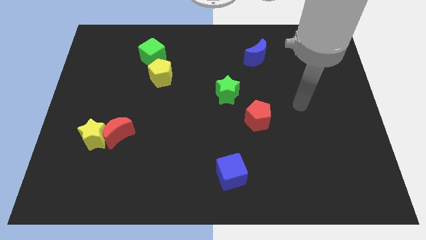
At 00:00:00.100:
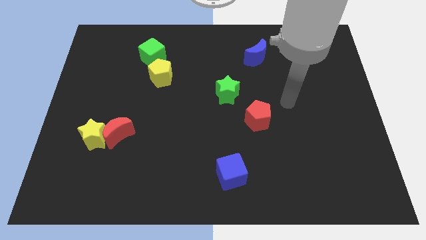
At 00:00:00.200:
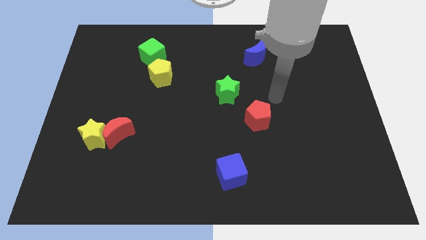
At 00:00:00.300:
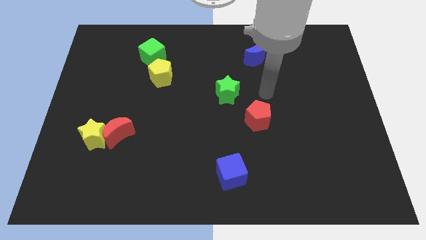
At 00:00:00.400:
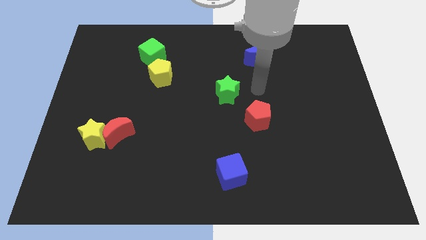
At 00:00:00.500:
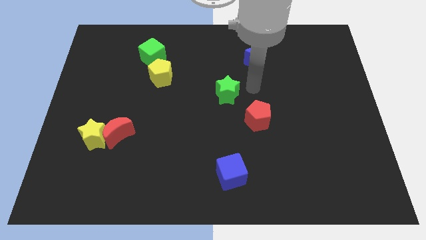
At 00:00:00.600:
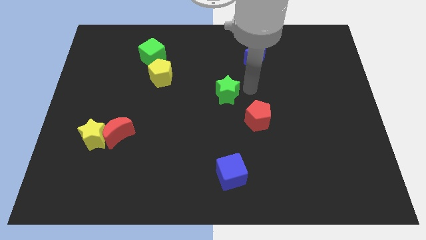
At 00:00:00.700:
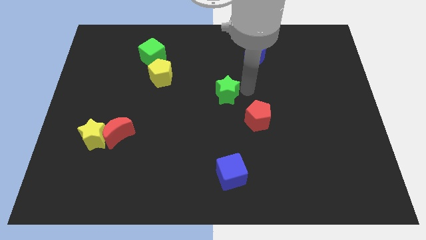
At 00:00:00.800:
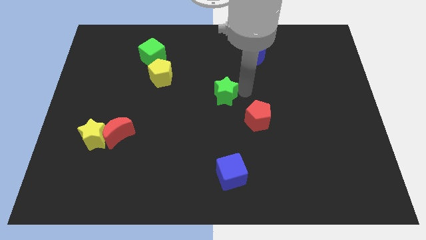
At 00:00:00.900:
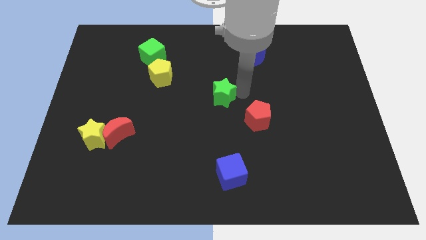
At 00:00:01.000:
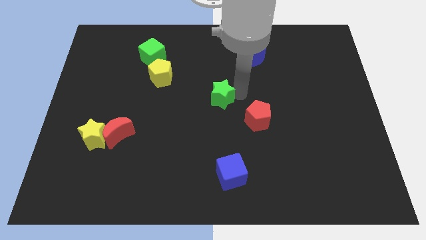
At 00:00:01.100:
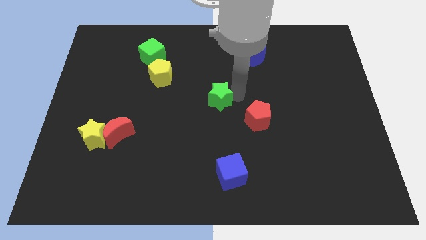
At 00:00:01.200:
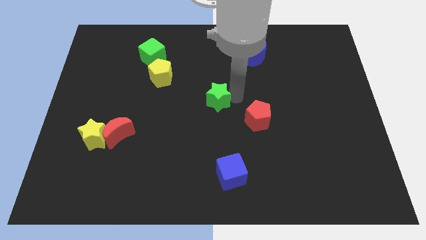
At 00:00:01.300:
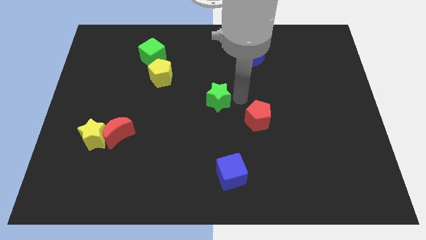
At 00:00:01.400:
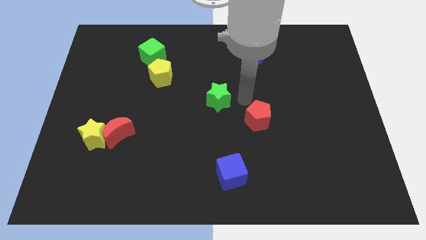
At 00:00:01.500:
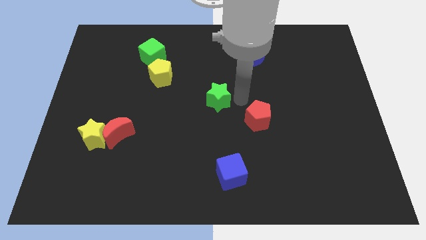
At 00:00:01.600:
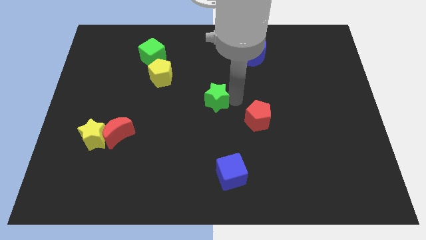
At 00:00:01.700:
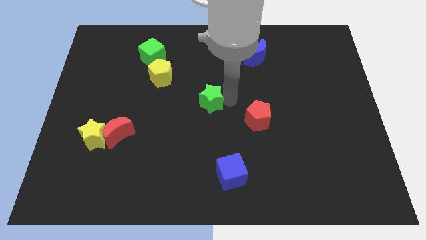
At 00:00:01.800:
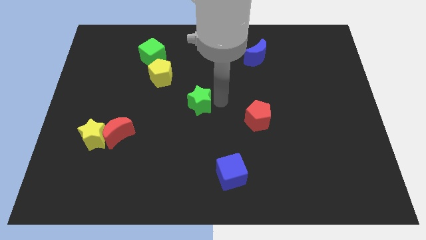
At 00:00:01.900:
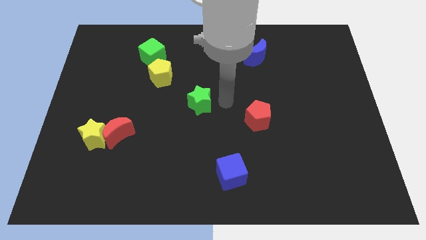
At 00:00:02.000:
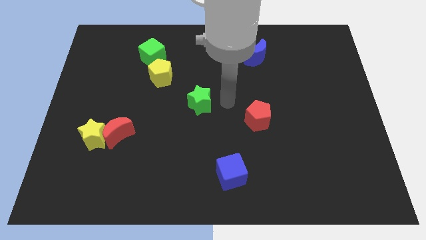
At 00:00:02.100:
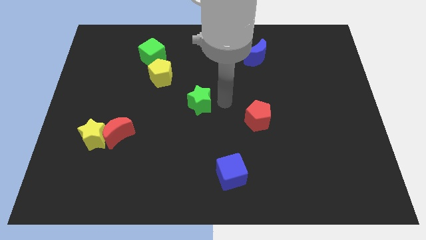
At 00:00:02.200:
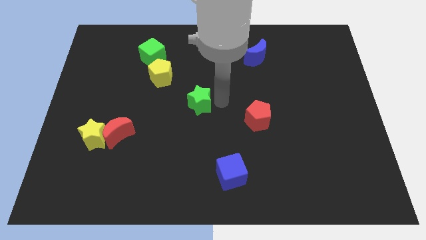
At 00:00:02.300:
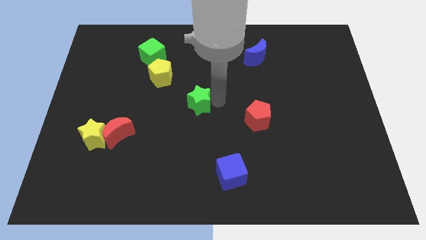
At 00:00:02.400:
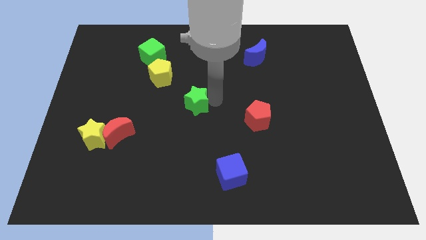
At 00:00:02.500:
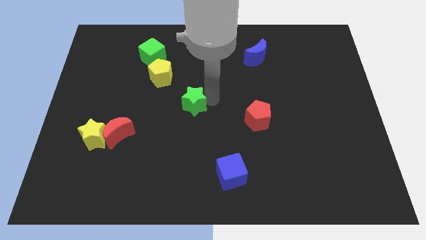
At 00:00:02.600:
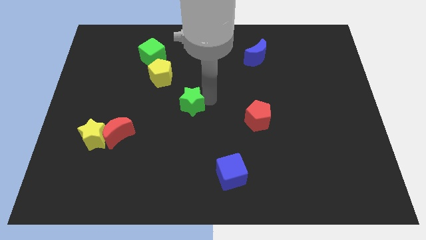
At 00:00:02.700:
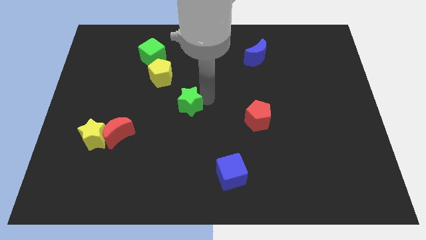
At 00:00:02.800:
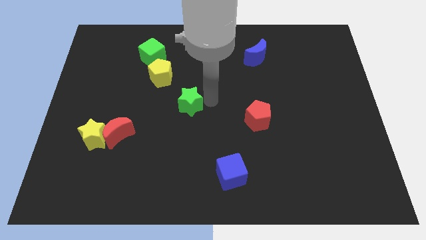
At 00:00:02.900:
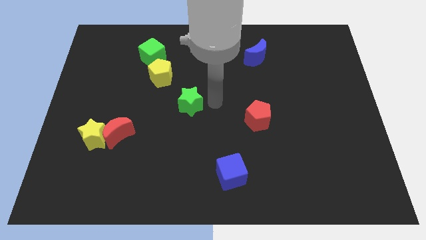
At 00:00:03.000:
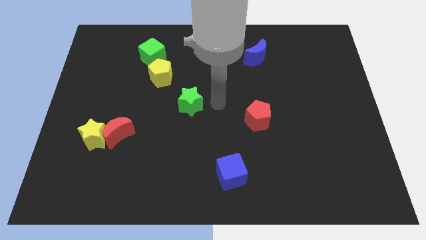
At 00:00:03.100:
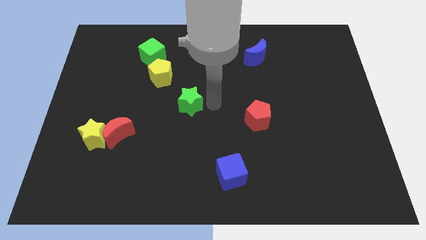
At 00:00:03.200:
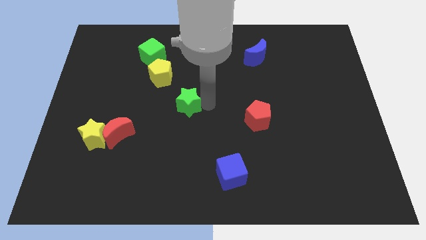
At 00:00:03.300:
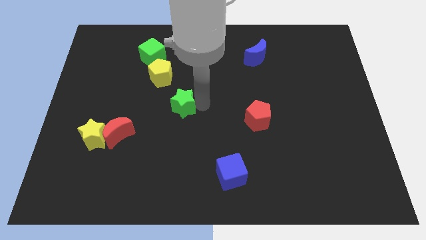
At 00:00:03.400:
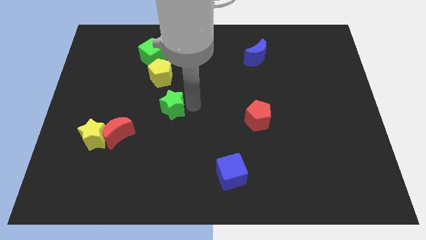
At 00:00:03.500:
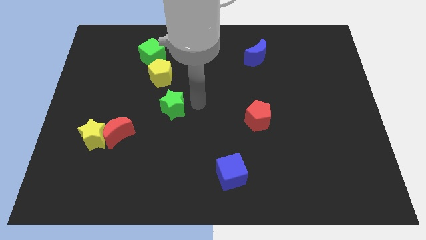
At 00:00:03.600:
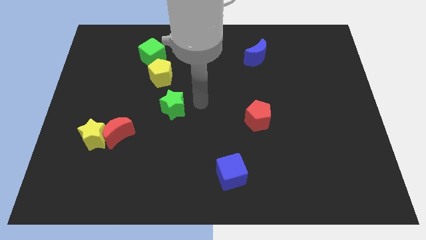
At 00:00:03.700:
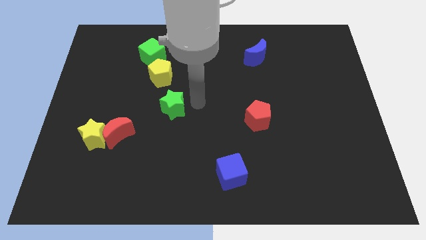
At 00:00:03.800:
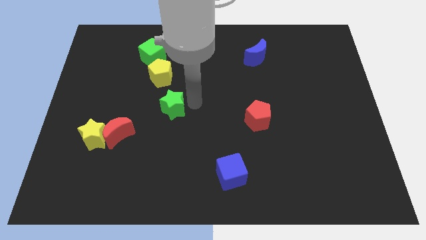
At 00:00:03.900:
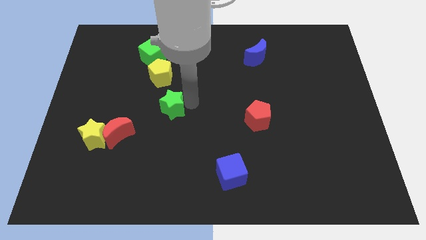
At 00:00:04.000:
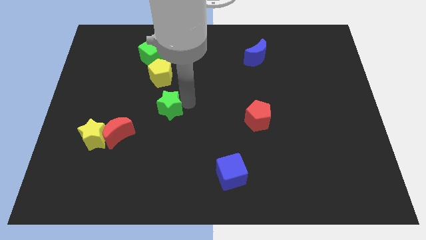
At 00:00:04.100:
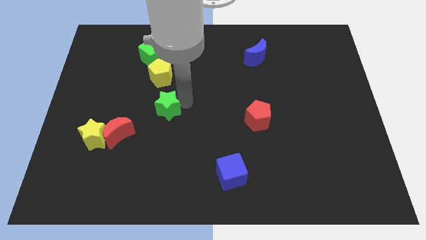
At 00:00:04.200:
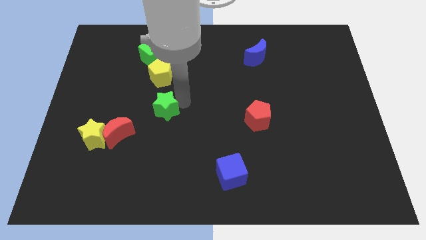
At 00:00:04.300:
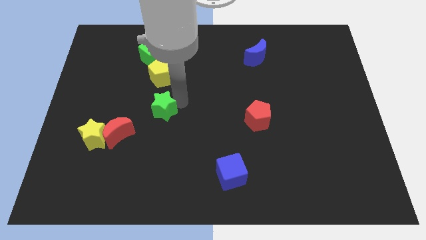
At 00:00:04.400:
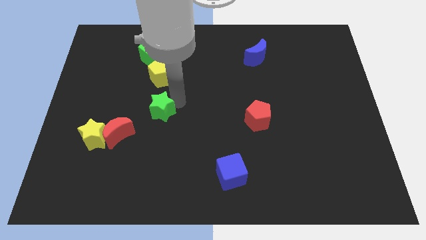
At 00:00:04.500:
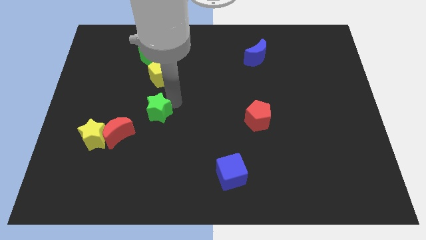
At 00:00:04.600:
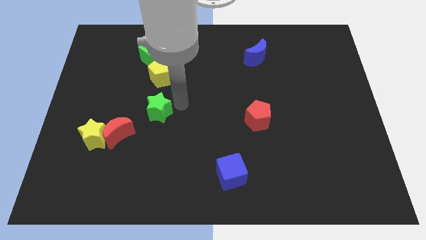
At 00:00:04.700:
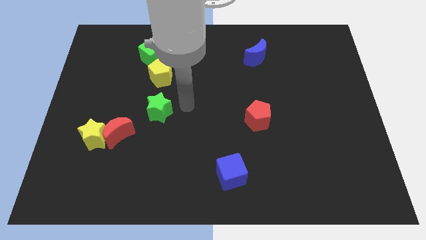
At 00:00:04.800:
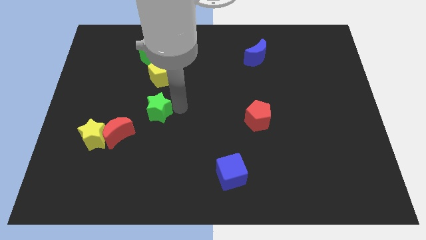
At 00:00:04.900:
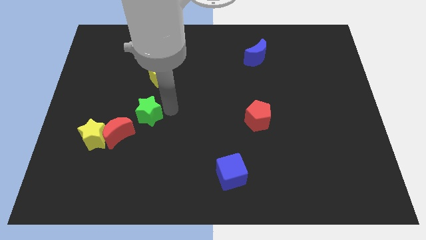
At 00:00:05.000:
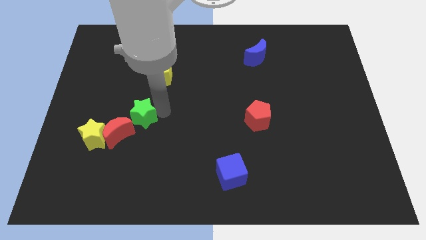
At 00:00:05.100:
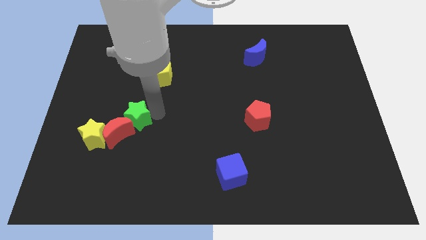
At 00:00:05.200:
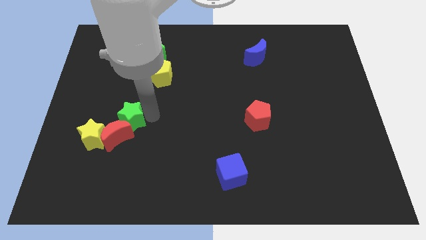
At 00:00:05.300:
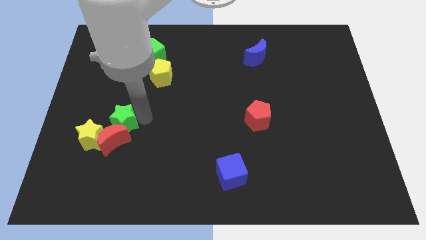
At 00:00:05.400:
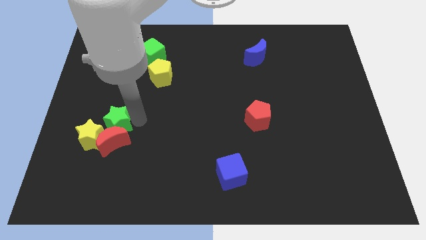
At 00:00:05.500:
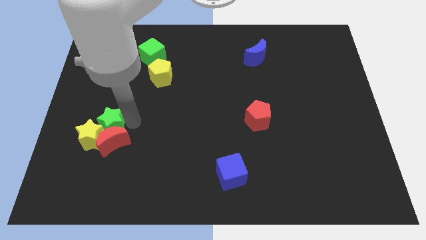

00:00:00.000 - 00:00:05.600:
put the green star close to the yellow star
